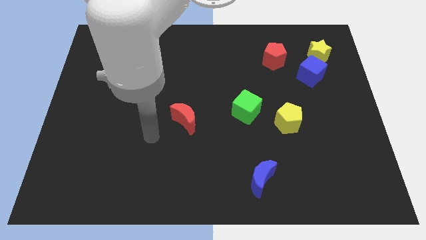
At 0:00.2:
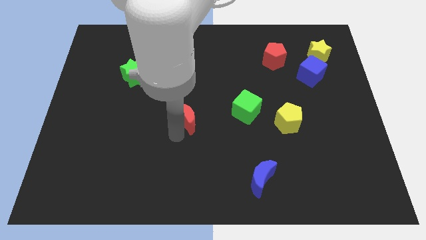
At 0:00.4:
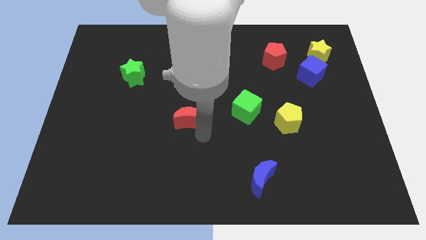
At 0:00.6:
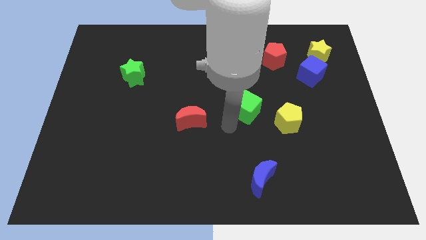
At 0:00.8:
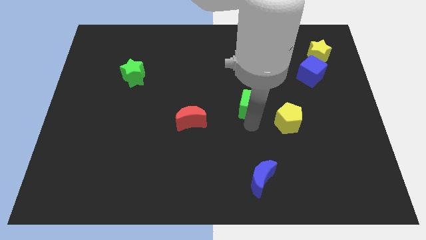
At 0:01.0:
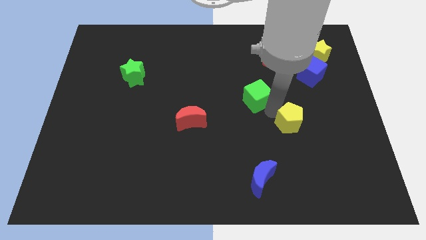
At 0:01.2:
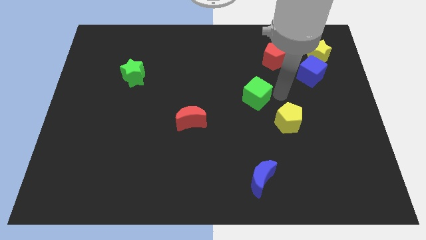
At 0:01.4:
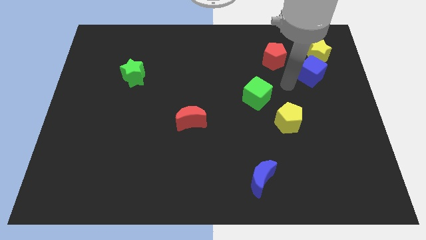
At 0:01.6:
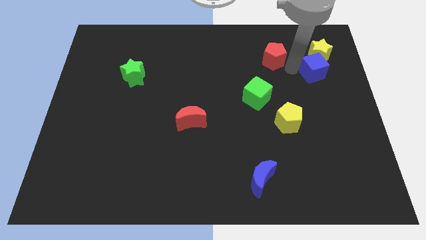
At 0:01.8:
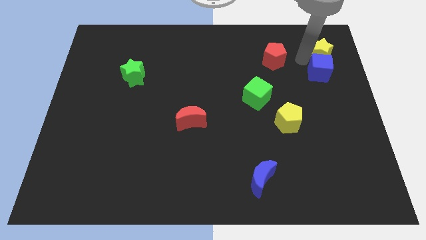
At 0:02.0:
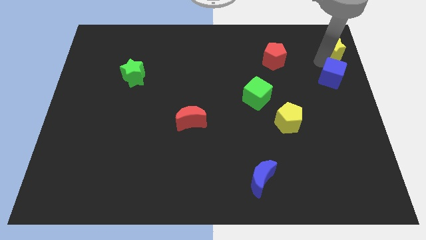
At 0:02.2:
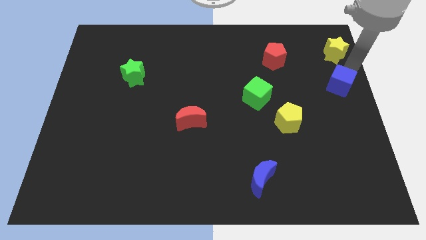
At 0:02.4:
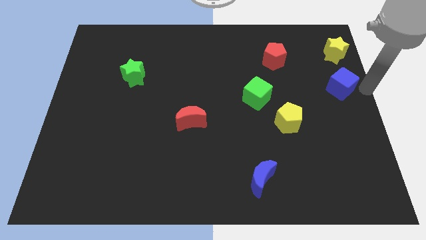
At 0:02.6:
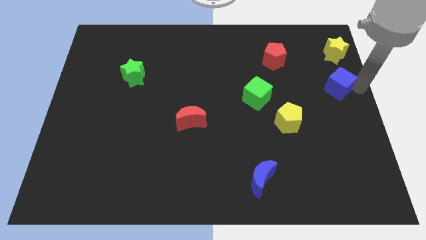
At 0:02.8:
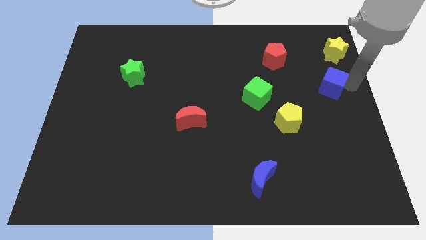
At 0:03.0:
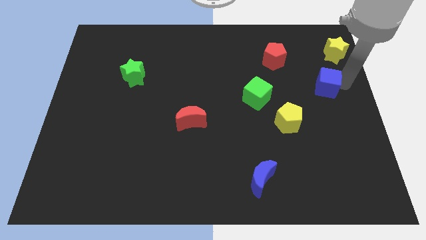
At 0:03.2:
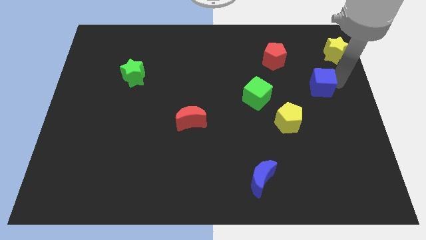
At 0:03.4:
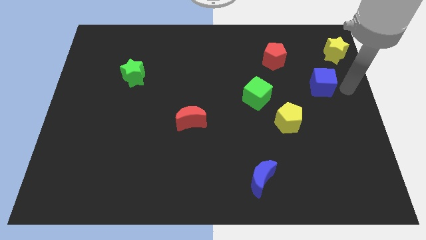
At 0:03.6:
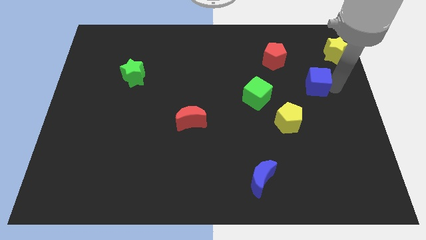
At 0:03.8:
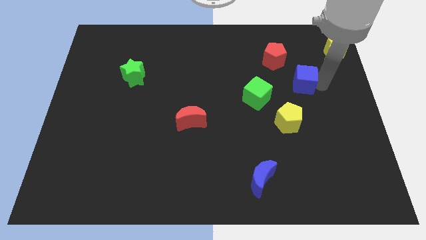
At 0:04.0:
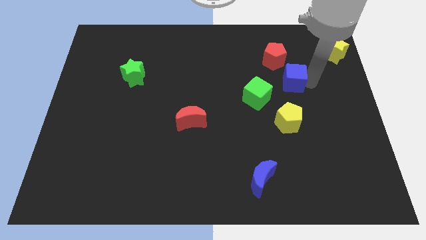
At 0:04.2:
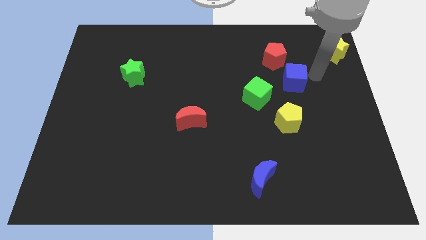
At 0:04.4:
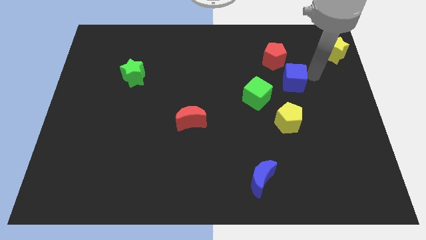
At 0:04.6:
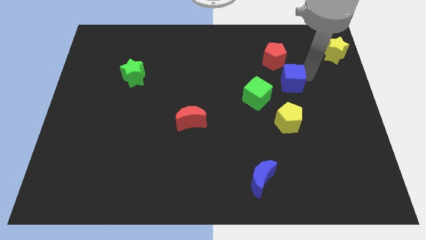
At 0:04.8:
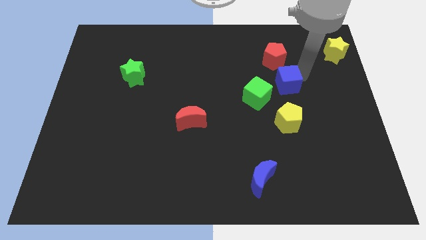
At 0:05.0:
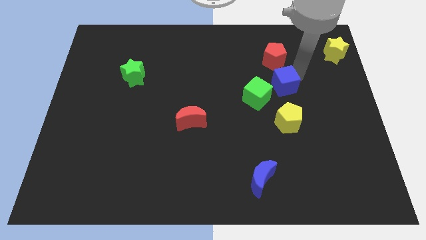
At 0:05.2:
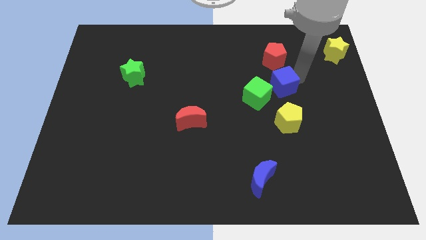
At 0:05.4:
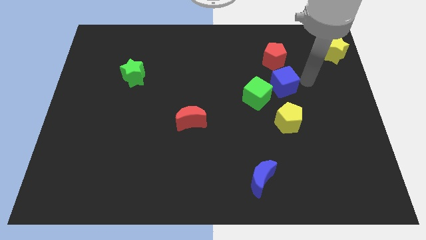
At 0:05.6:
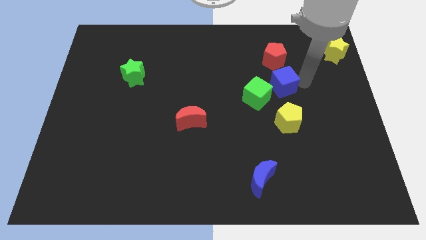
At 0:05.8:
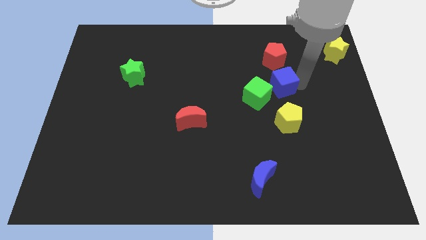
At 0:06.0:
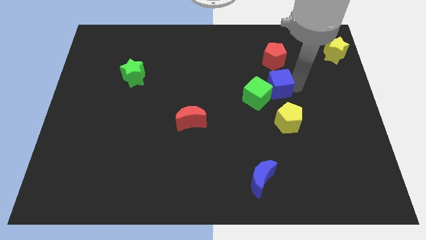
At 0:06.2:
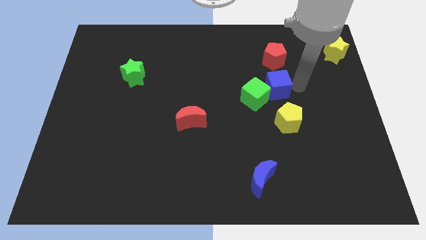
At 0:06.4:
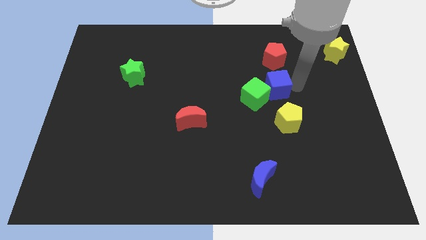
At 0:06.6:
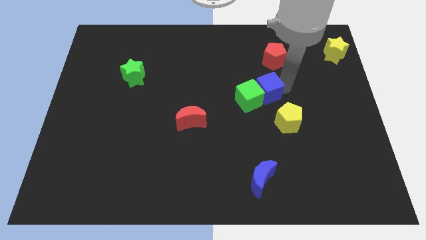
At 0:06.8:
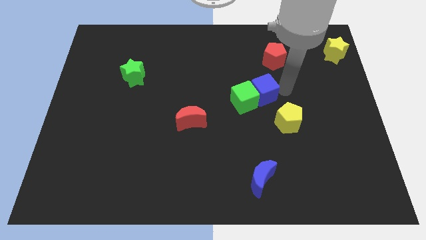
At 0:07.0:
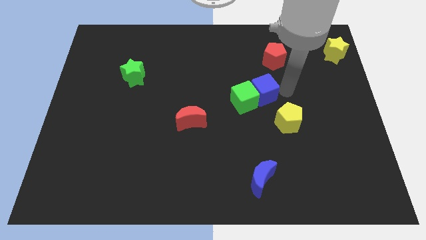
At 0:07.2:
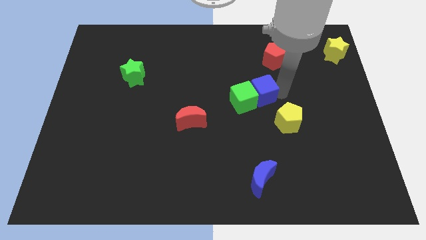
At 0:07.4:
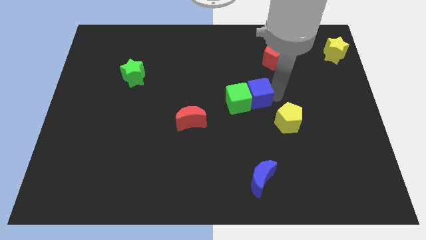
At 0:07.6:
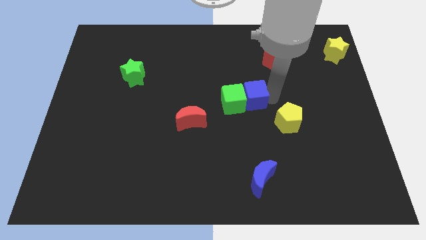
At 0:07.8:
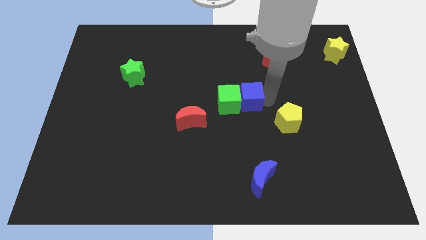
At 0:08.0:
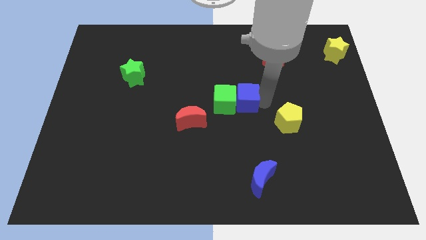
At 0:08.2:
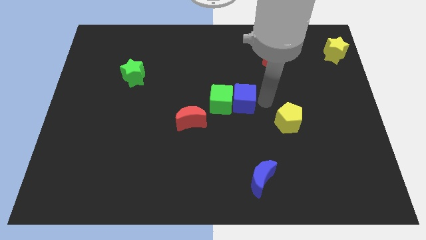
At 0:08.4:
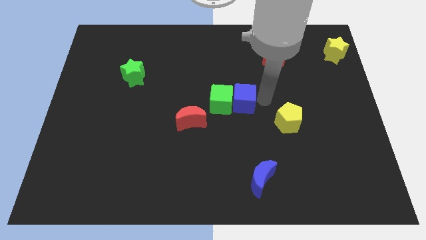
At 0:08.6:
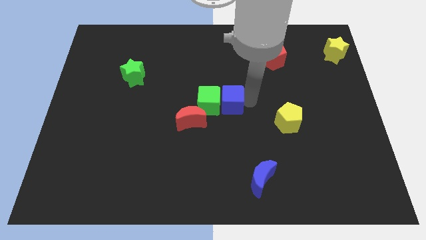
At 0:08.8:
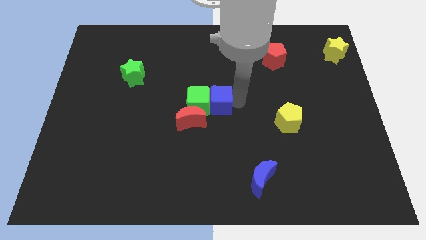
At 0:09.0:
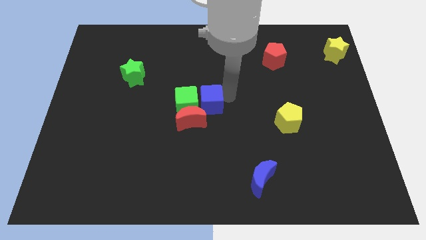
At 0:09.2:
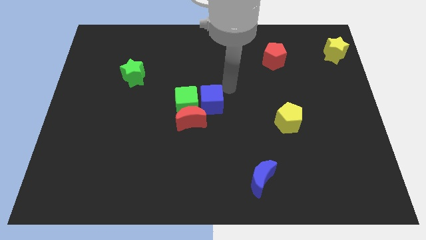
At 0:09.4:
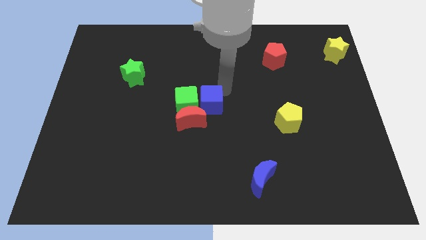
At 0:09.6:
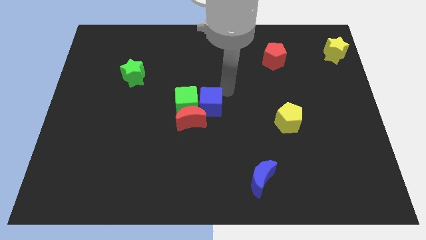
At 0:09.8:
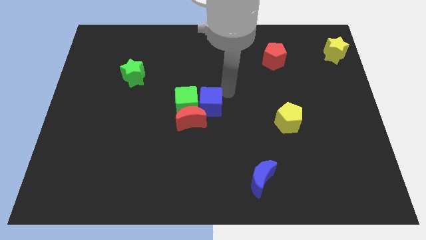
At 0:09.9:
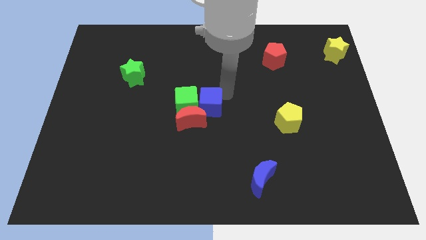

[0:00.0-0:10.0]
put the blue cube to the red moon

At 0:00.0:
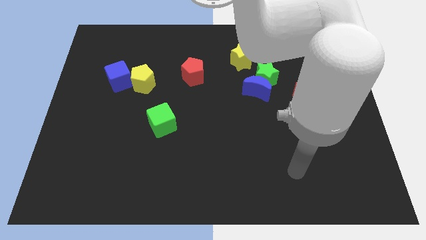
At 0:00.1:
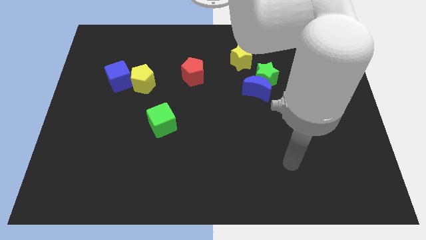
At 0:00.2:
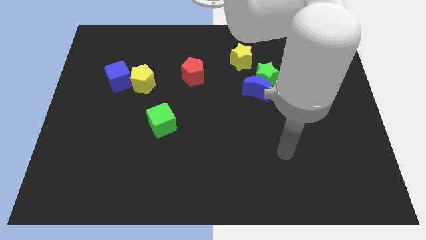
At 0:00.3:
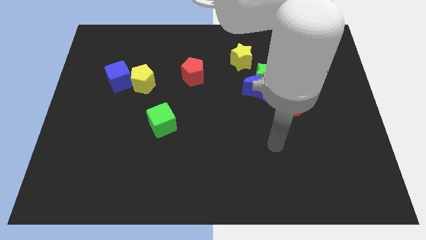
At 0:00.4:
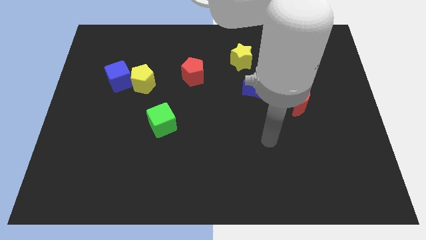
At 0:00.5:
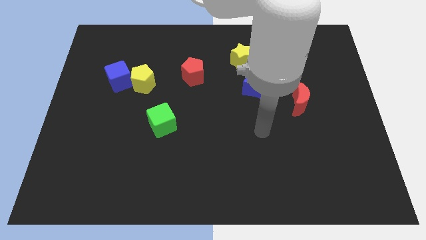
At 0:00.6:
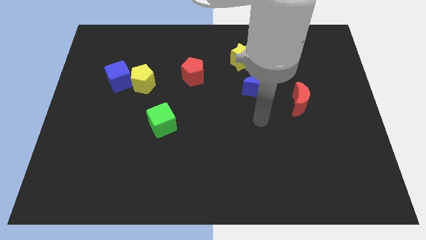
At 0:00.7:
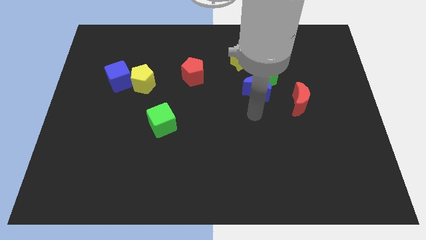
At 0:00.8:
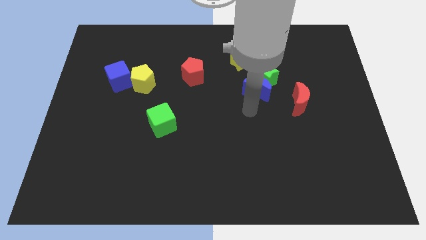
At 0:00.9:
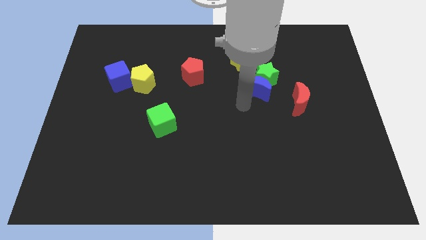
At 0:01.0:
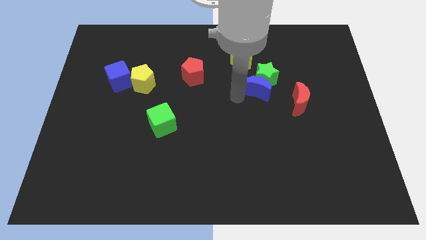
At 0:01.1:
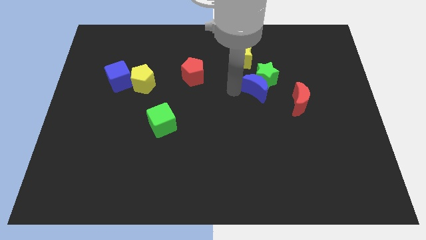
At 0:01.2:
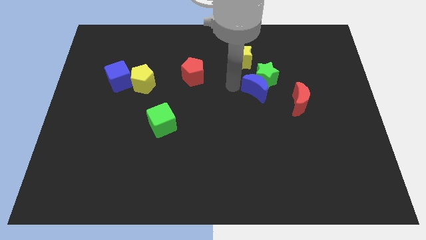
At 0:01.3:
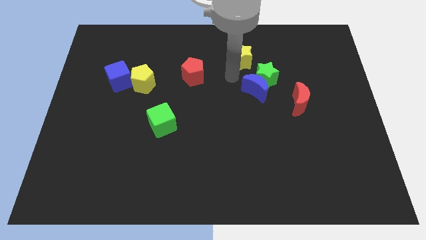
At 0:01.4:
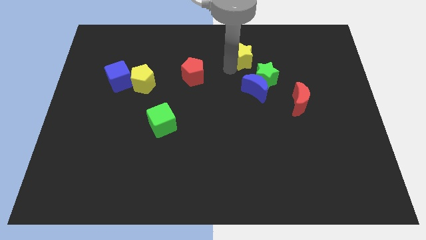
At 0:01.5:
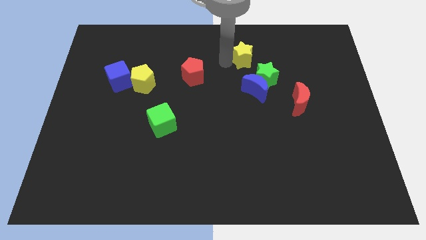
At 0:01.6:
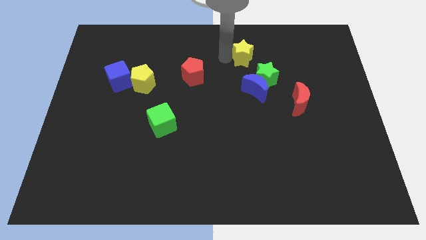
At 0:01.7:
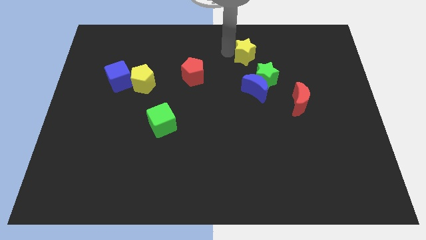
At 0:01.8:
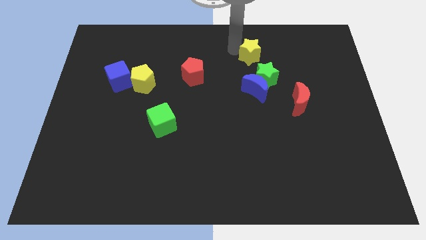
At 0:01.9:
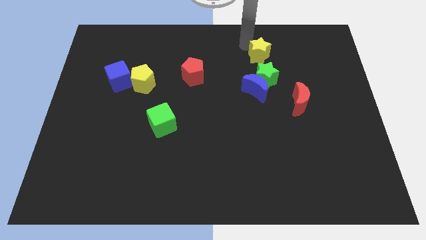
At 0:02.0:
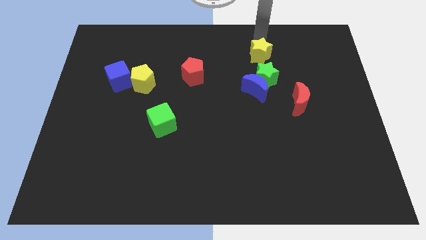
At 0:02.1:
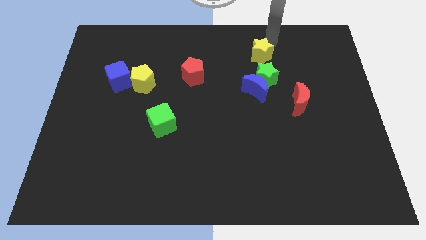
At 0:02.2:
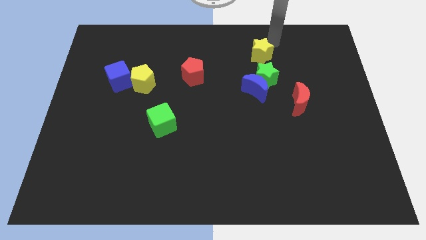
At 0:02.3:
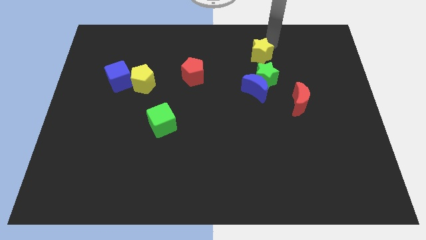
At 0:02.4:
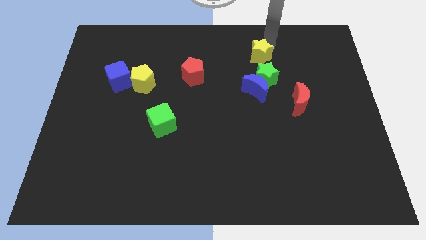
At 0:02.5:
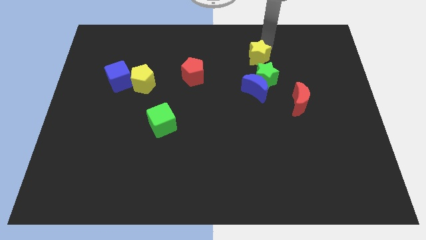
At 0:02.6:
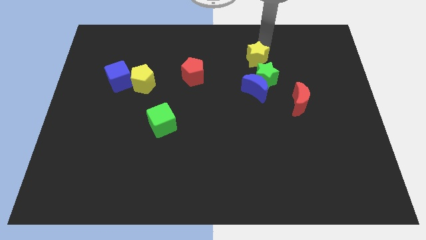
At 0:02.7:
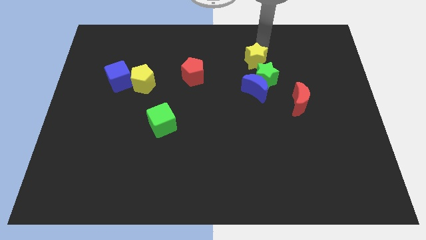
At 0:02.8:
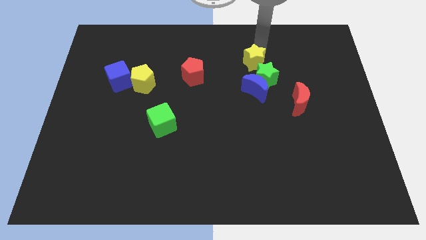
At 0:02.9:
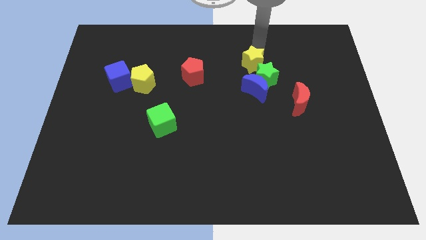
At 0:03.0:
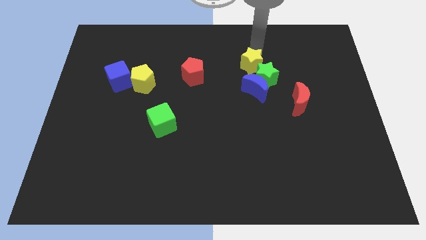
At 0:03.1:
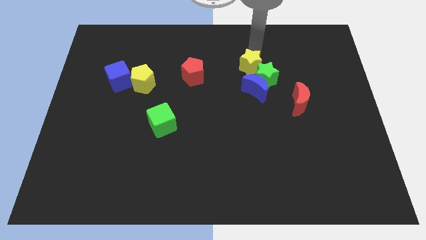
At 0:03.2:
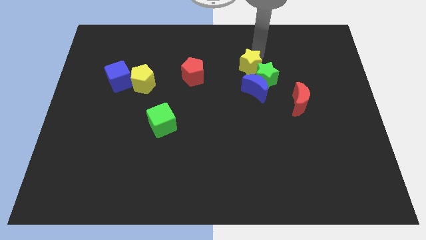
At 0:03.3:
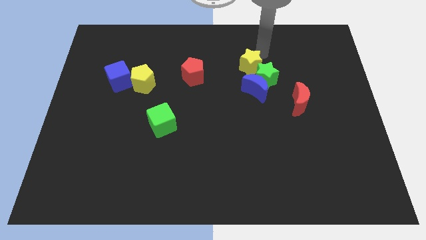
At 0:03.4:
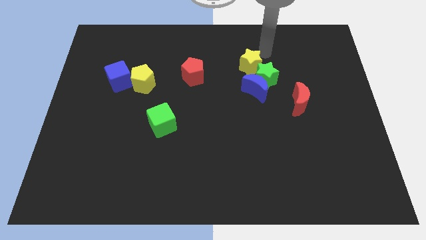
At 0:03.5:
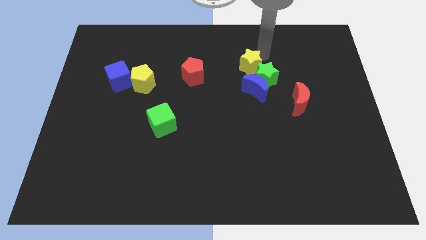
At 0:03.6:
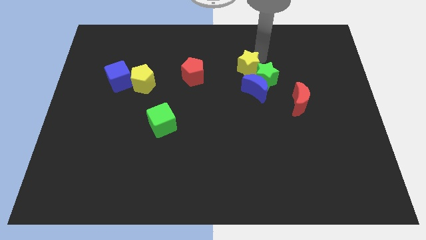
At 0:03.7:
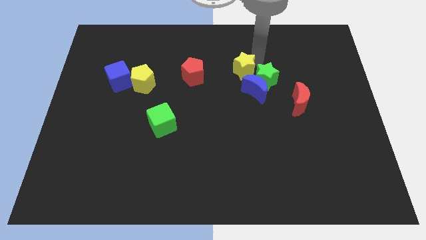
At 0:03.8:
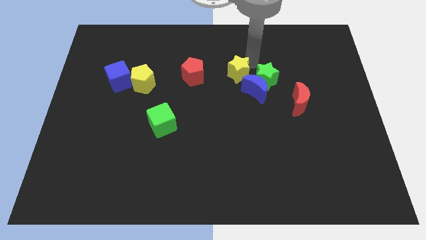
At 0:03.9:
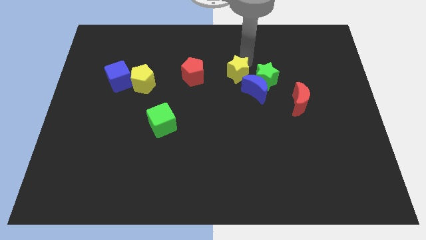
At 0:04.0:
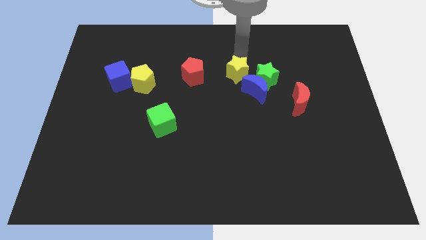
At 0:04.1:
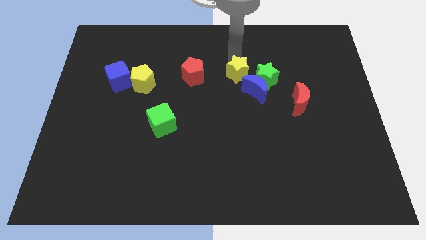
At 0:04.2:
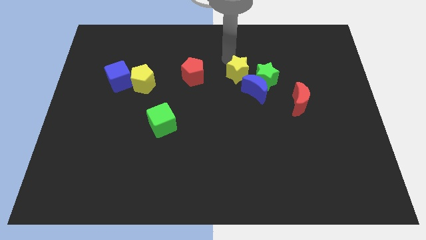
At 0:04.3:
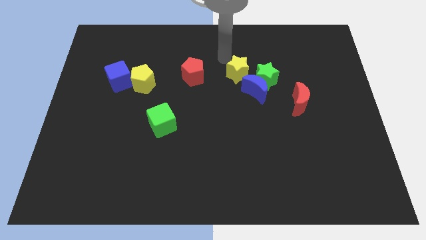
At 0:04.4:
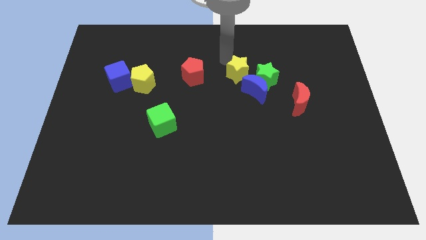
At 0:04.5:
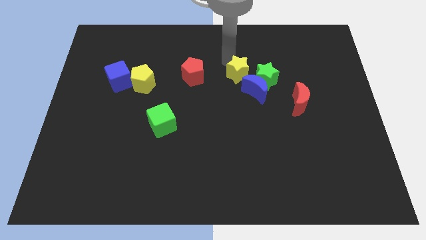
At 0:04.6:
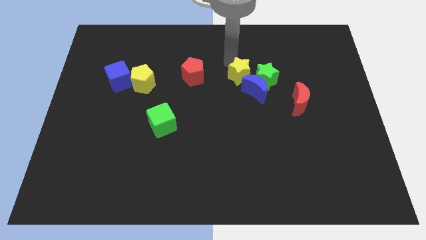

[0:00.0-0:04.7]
put the yellow star towards the blue moon
